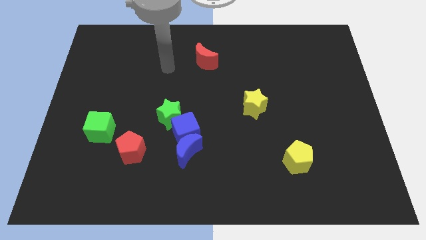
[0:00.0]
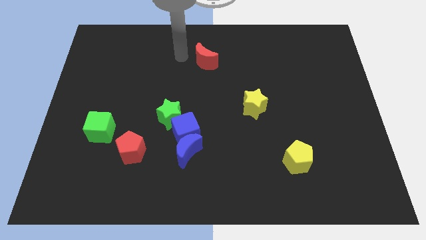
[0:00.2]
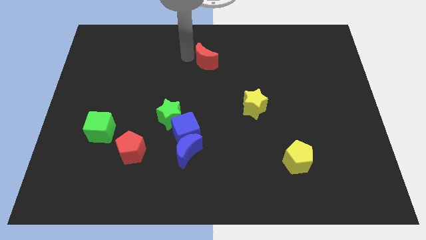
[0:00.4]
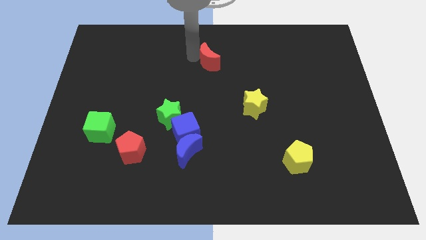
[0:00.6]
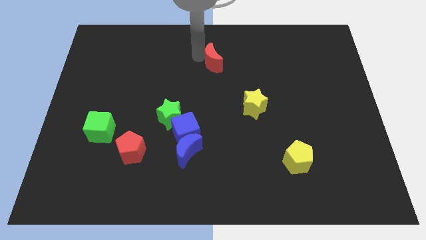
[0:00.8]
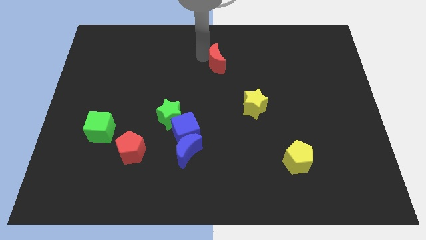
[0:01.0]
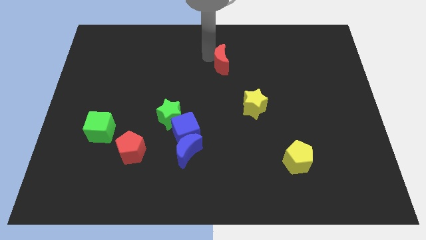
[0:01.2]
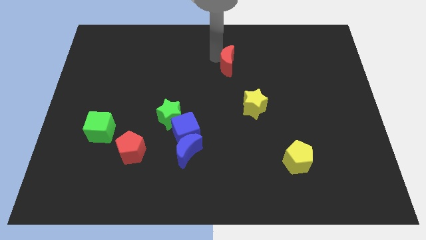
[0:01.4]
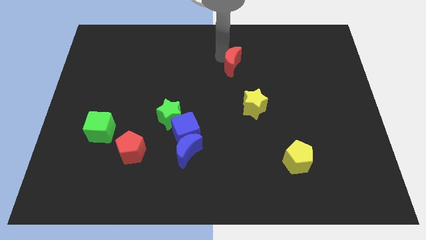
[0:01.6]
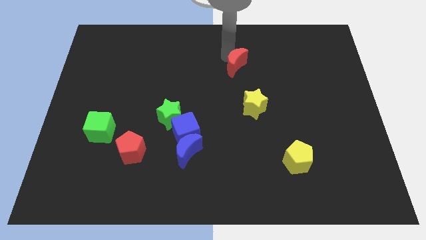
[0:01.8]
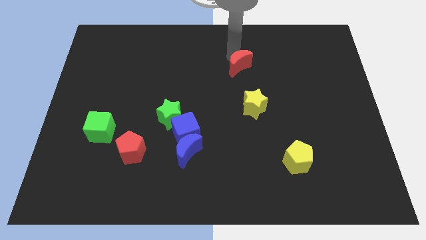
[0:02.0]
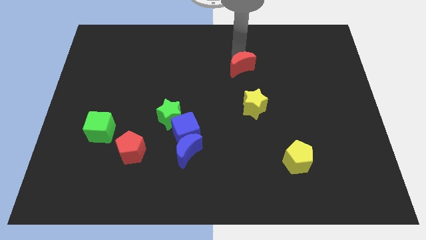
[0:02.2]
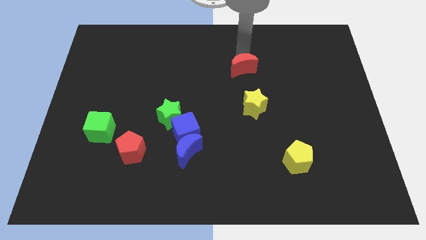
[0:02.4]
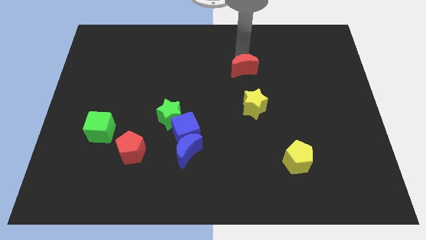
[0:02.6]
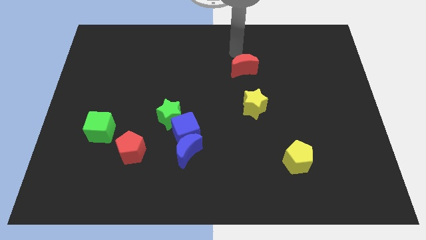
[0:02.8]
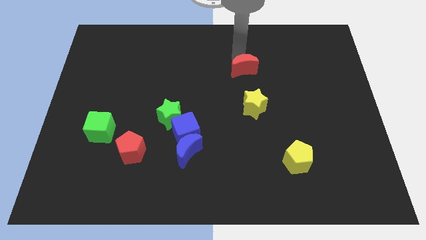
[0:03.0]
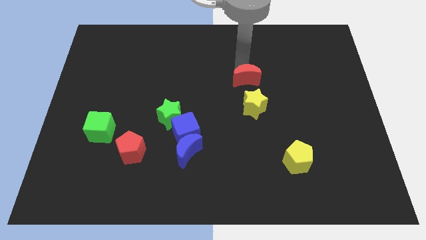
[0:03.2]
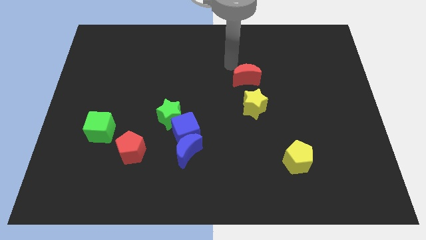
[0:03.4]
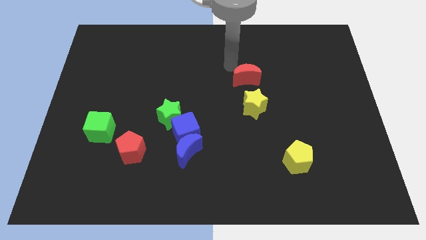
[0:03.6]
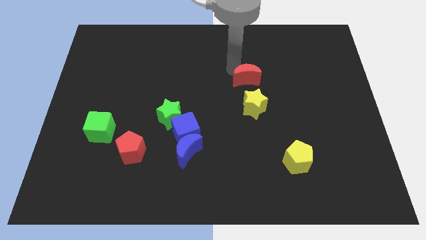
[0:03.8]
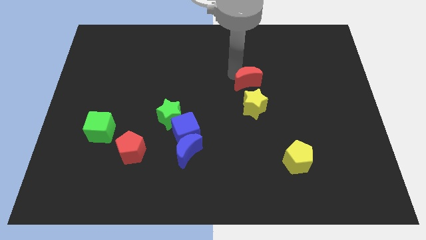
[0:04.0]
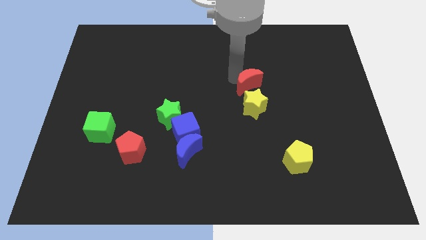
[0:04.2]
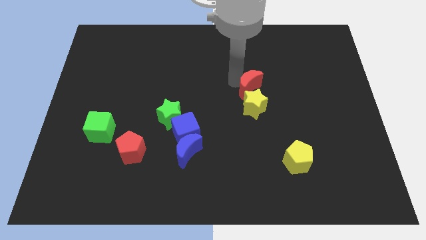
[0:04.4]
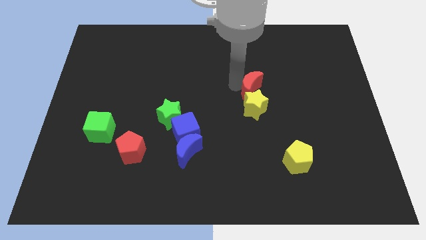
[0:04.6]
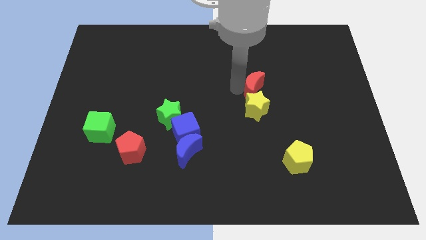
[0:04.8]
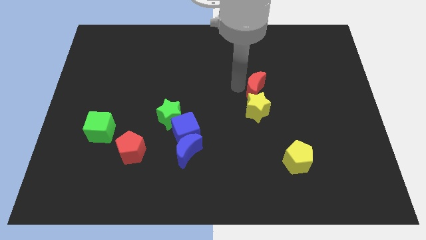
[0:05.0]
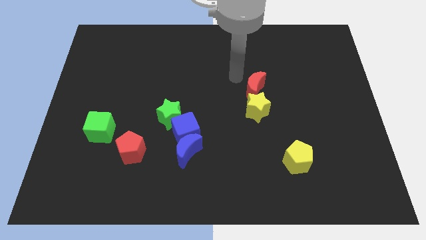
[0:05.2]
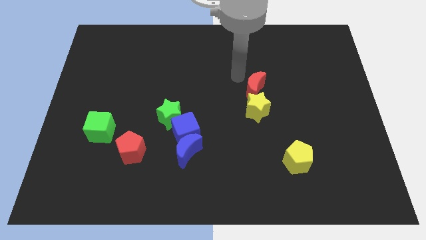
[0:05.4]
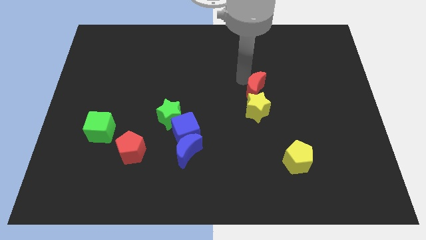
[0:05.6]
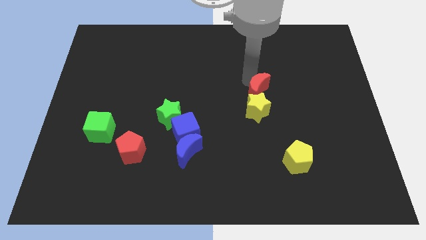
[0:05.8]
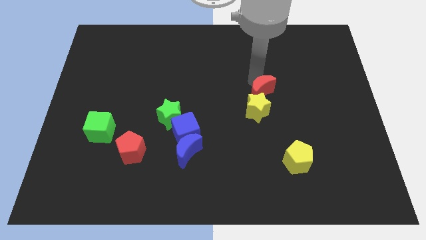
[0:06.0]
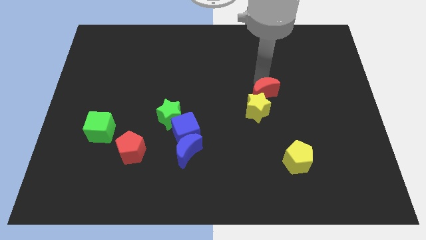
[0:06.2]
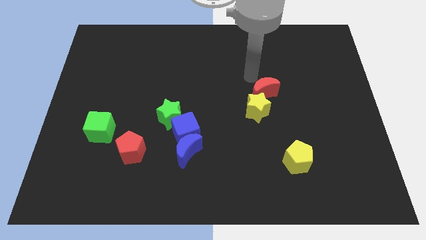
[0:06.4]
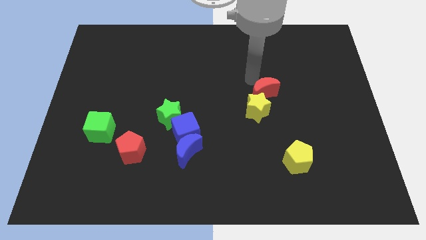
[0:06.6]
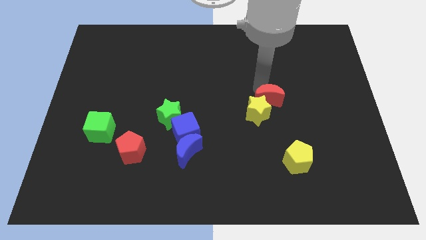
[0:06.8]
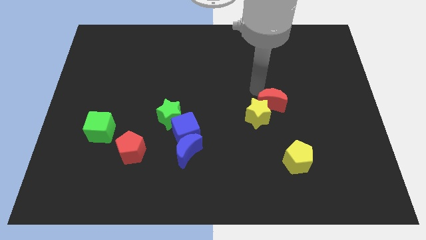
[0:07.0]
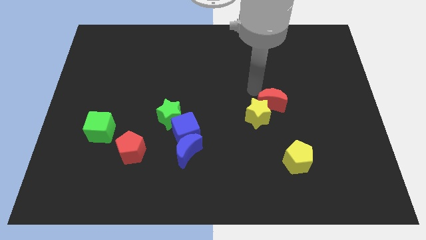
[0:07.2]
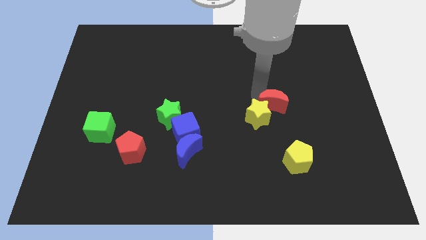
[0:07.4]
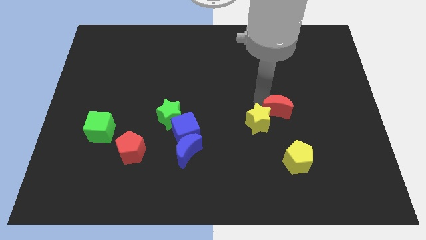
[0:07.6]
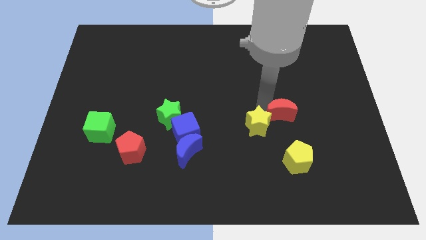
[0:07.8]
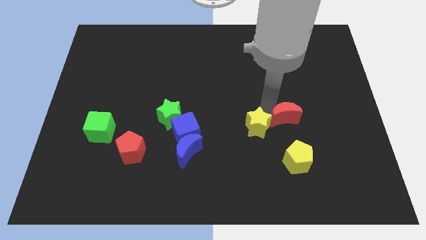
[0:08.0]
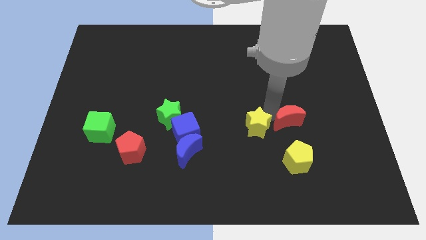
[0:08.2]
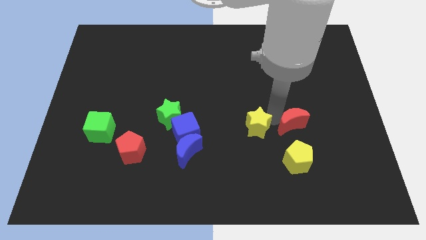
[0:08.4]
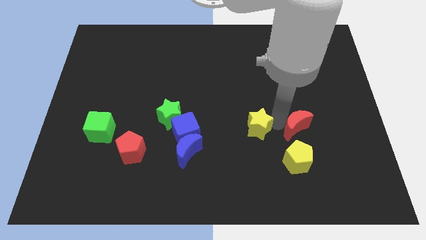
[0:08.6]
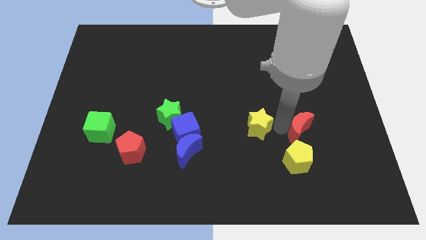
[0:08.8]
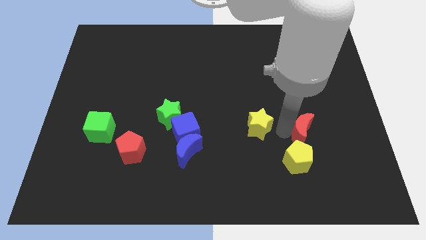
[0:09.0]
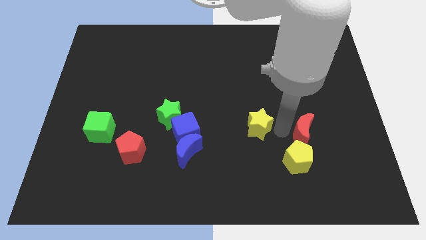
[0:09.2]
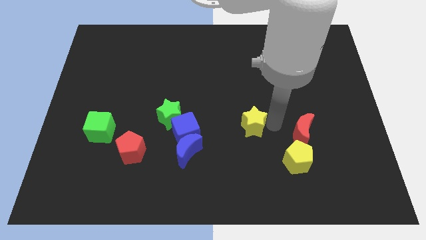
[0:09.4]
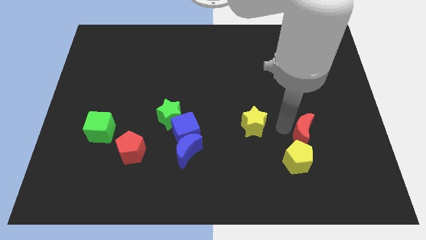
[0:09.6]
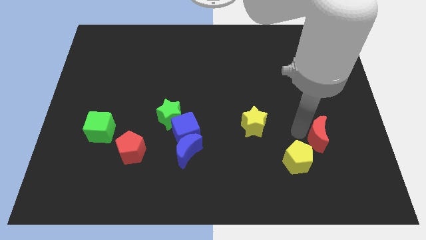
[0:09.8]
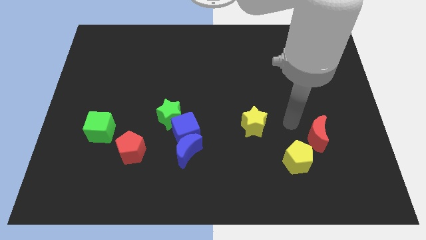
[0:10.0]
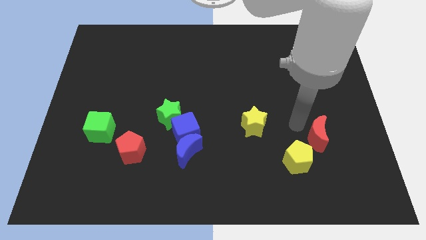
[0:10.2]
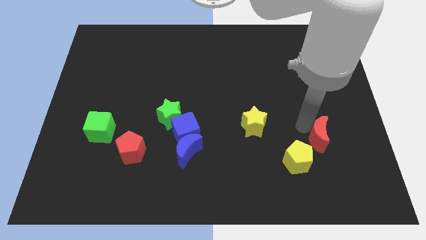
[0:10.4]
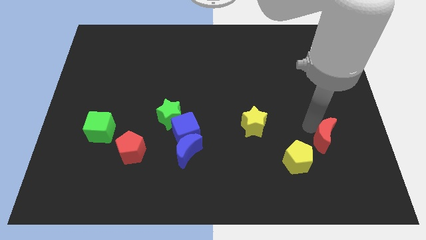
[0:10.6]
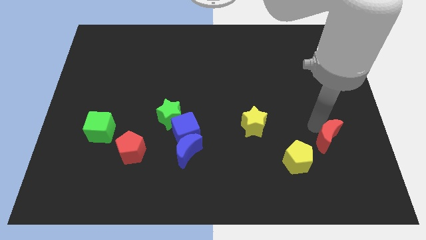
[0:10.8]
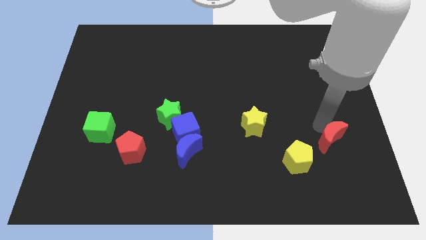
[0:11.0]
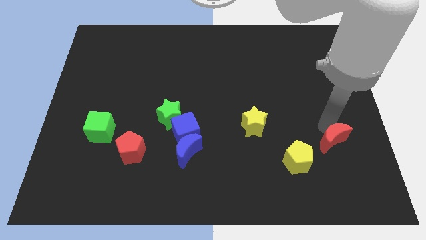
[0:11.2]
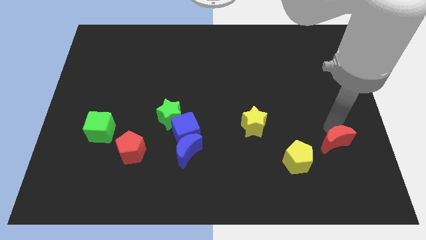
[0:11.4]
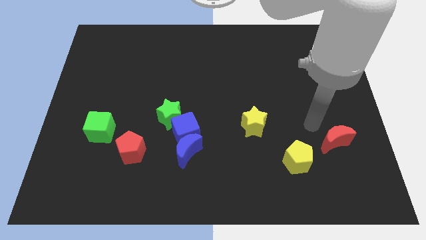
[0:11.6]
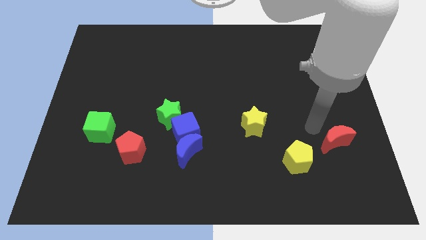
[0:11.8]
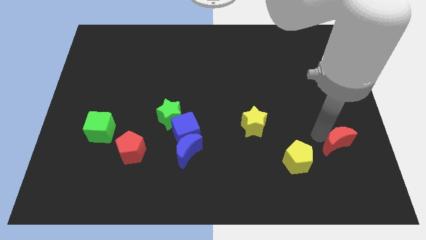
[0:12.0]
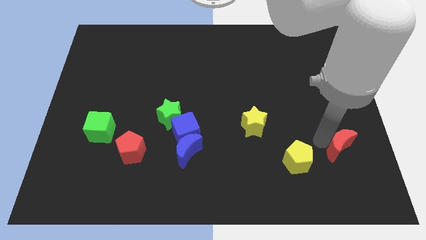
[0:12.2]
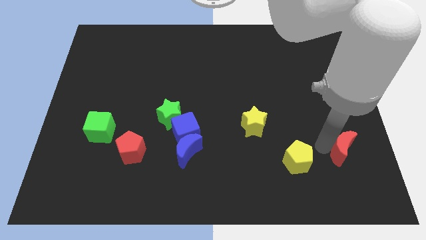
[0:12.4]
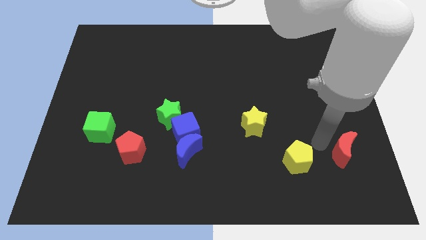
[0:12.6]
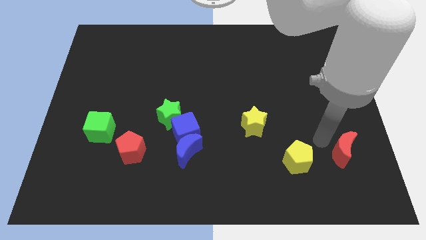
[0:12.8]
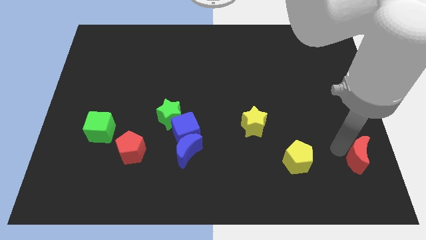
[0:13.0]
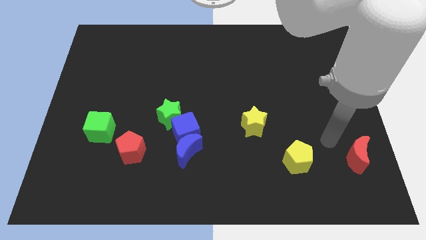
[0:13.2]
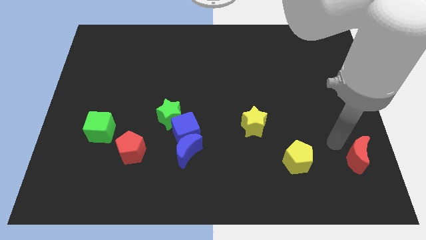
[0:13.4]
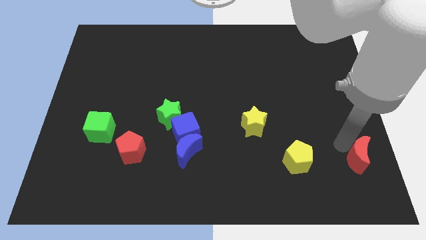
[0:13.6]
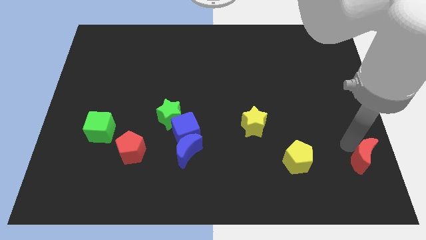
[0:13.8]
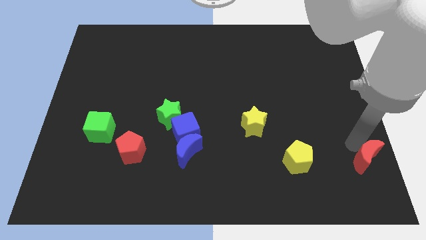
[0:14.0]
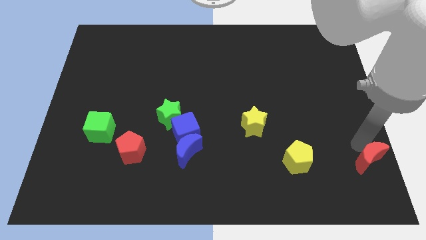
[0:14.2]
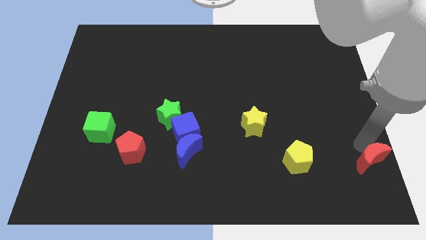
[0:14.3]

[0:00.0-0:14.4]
move the red moon to the bottom right corner
